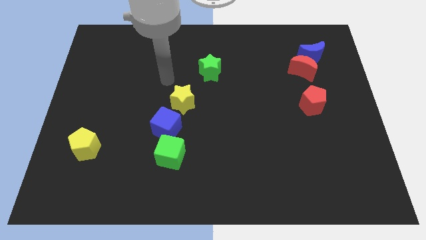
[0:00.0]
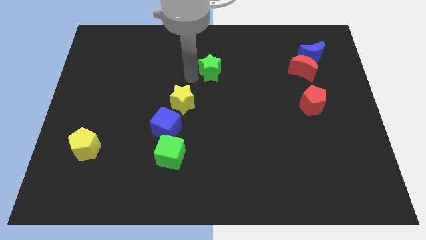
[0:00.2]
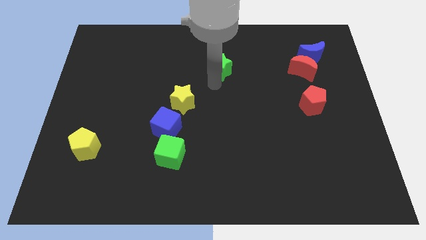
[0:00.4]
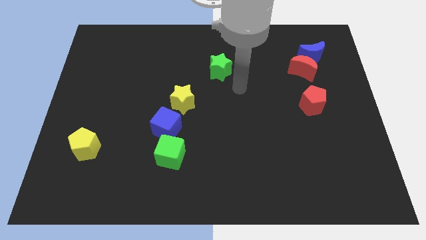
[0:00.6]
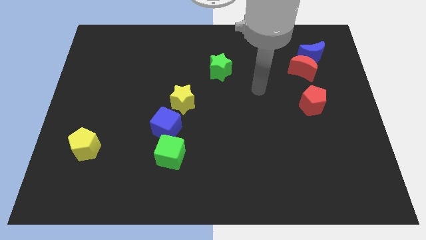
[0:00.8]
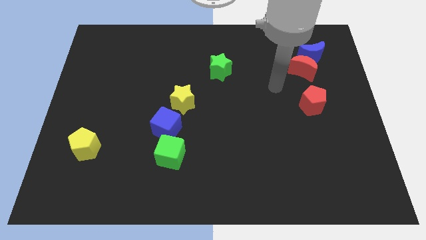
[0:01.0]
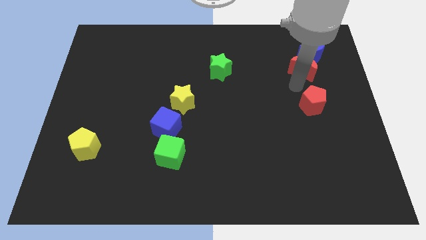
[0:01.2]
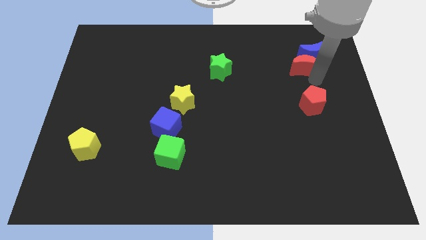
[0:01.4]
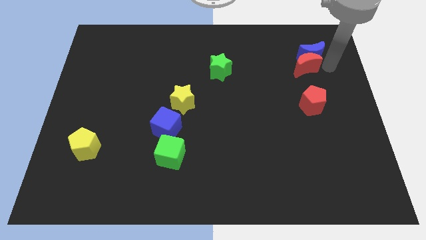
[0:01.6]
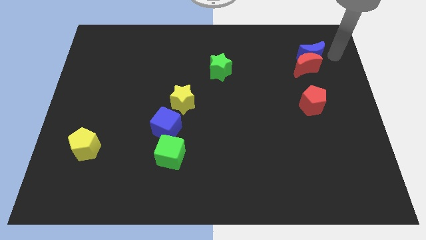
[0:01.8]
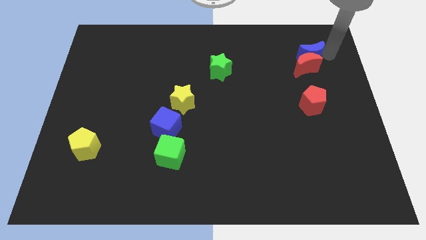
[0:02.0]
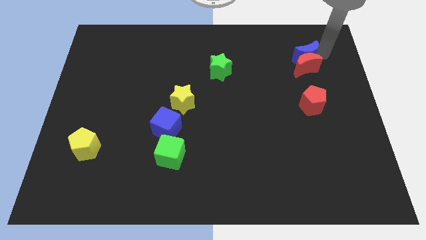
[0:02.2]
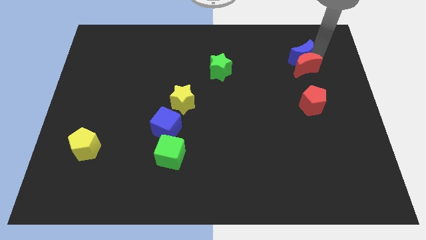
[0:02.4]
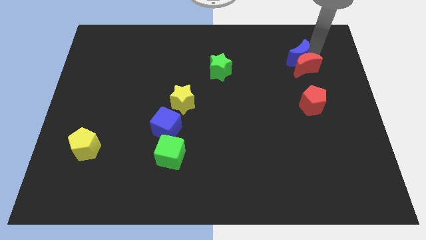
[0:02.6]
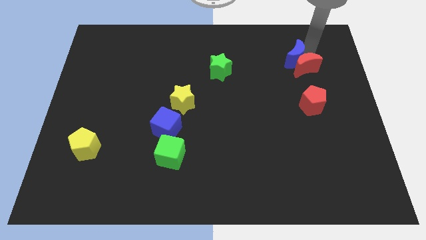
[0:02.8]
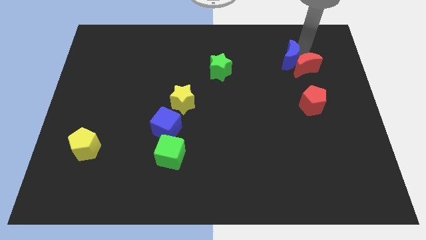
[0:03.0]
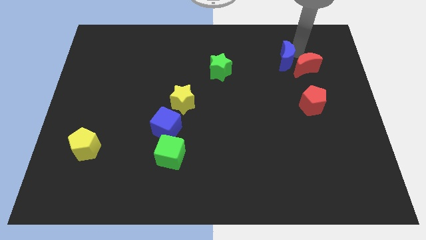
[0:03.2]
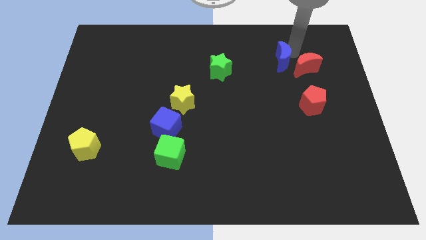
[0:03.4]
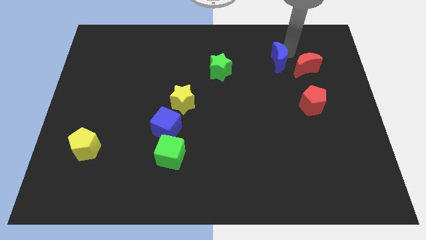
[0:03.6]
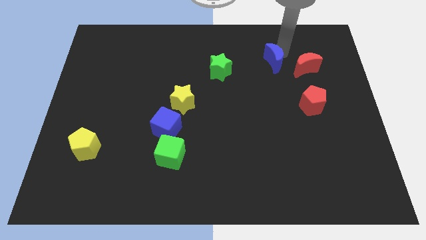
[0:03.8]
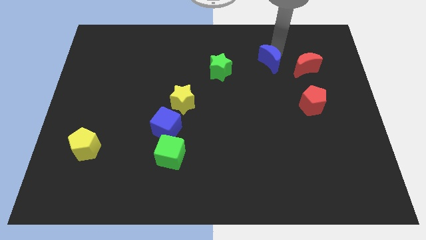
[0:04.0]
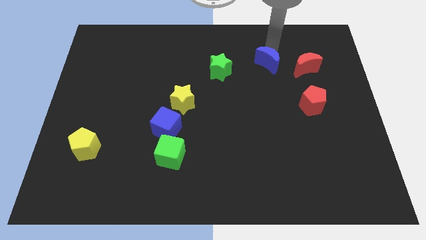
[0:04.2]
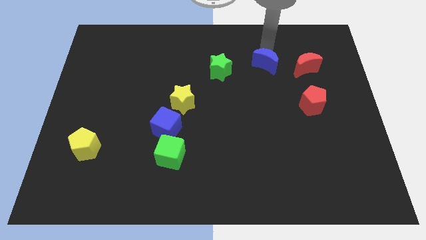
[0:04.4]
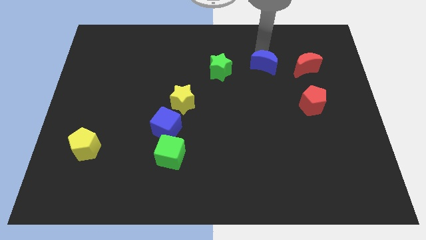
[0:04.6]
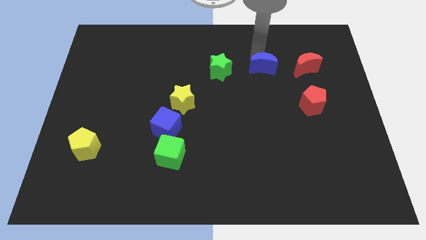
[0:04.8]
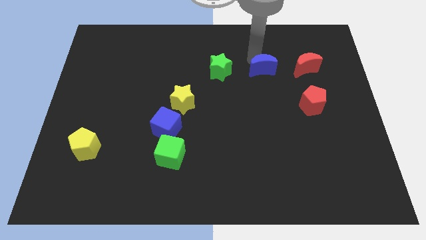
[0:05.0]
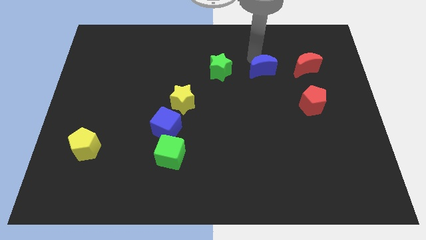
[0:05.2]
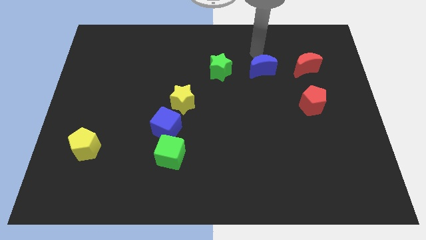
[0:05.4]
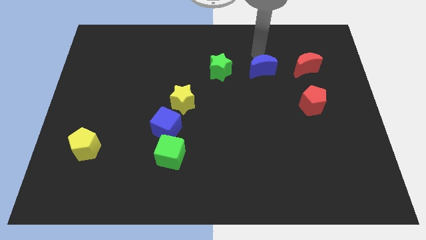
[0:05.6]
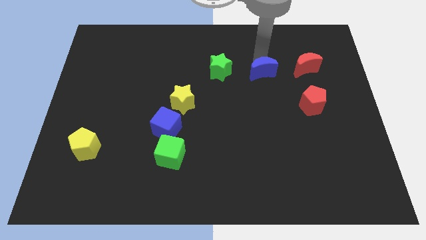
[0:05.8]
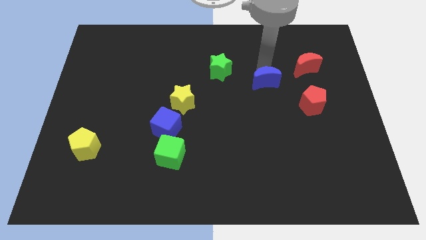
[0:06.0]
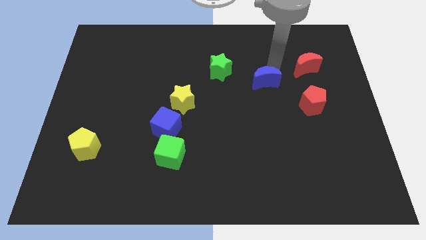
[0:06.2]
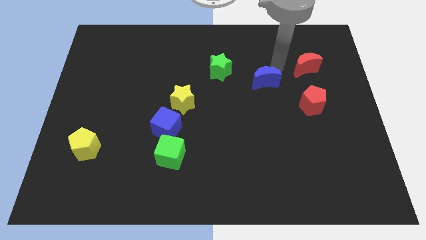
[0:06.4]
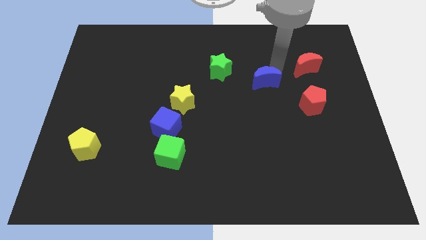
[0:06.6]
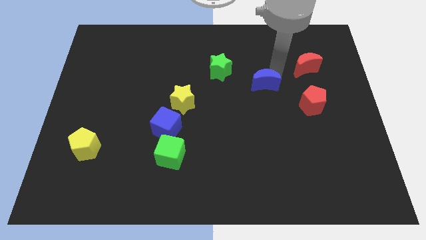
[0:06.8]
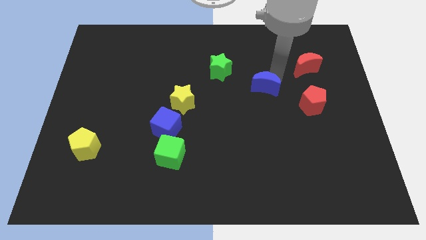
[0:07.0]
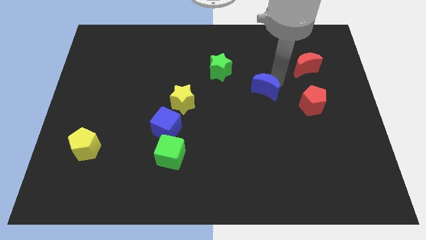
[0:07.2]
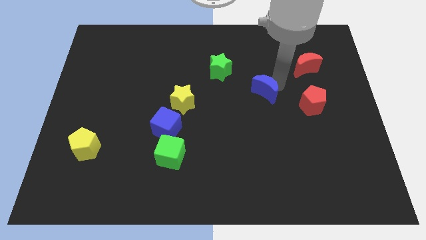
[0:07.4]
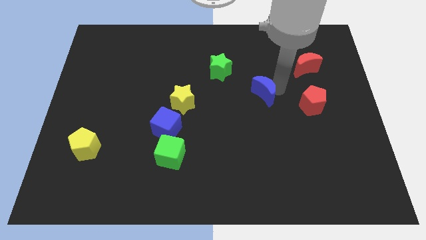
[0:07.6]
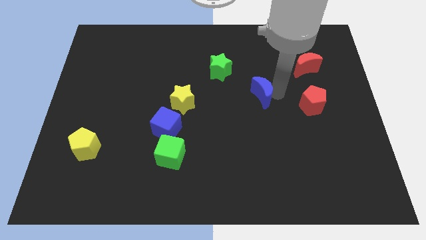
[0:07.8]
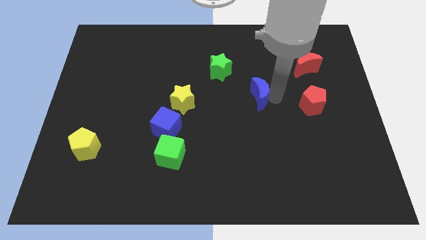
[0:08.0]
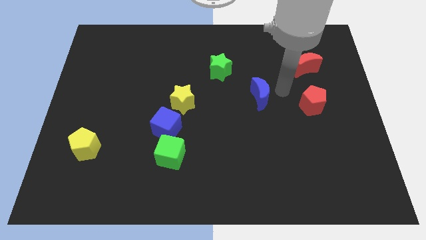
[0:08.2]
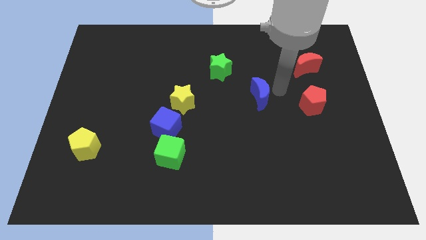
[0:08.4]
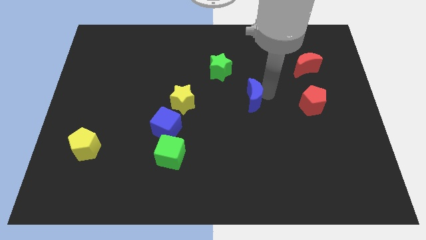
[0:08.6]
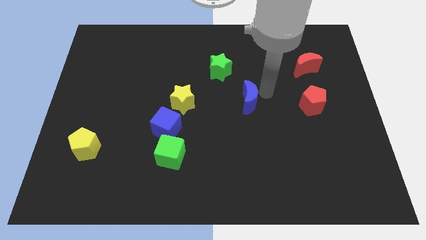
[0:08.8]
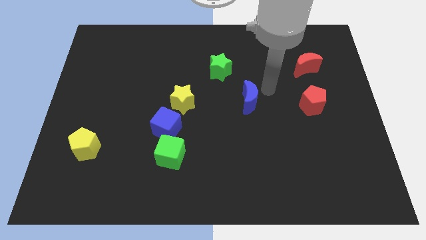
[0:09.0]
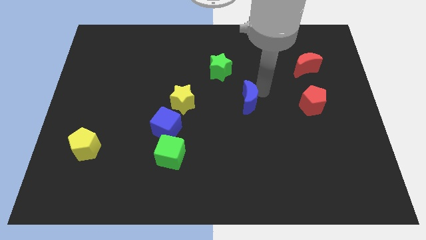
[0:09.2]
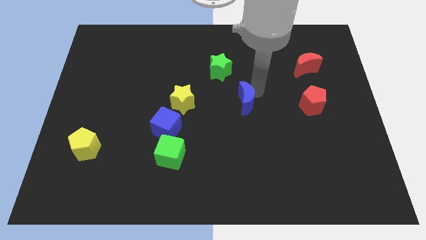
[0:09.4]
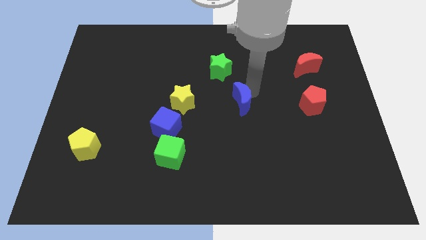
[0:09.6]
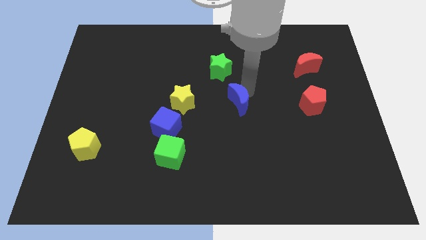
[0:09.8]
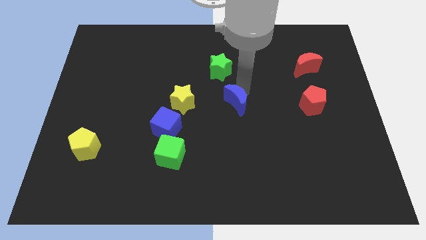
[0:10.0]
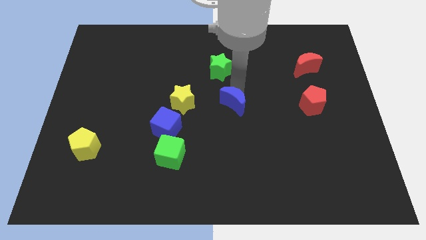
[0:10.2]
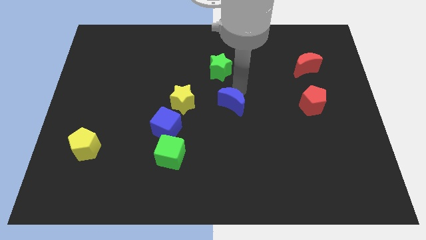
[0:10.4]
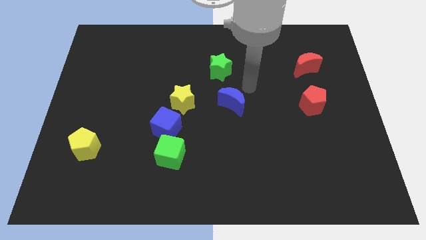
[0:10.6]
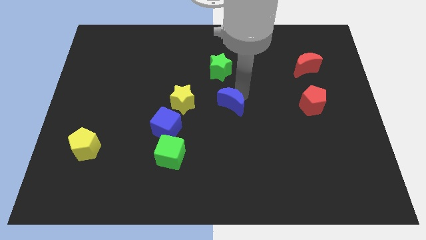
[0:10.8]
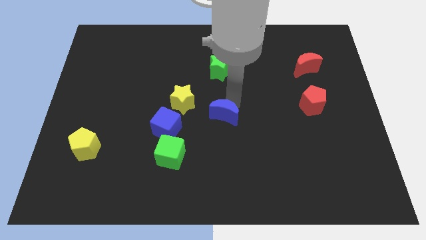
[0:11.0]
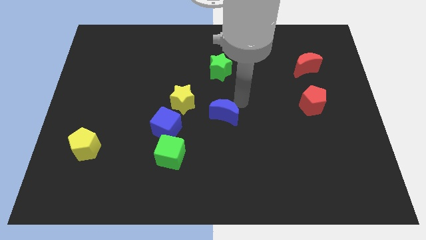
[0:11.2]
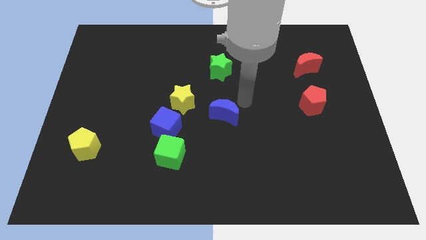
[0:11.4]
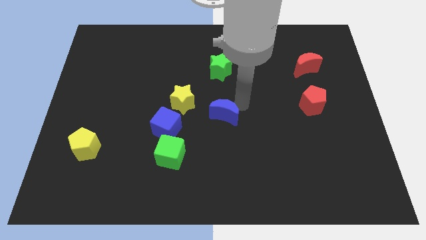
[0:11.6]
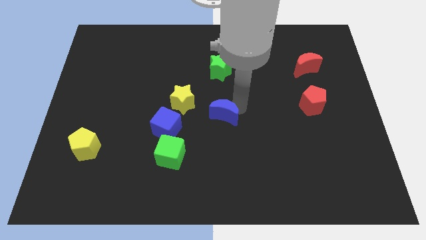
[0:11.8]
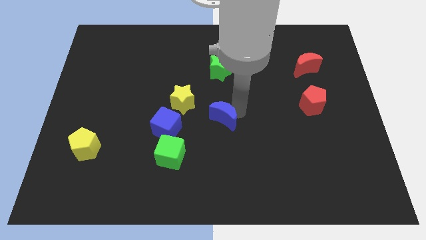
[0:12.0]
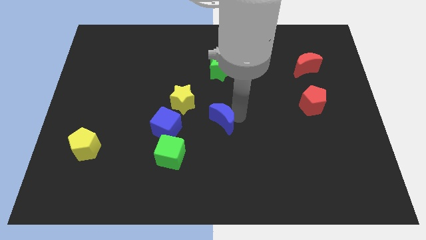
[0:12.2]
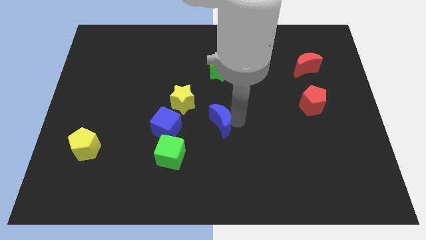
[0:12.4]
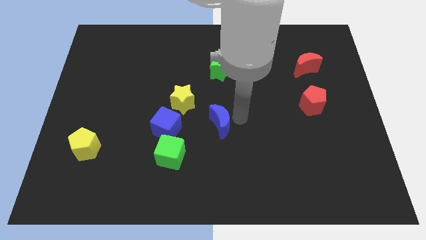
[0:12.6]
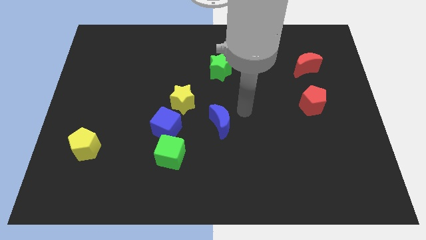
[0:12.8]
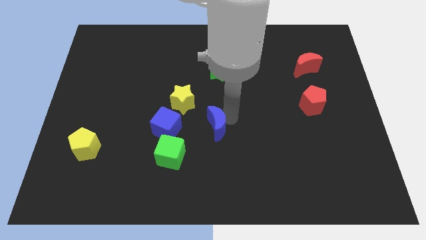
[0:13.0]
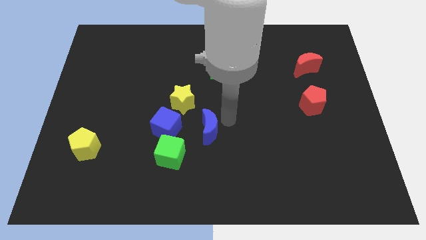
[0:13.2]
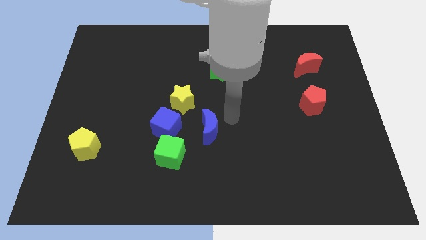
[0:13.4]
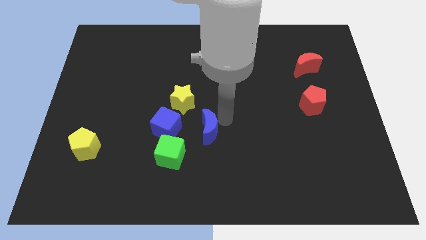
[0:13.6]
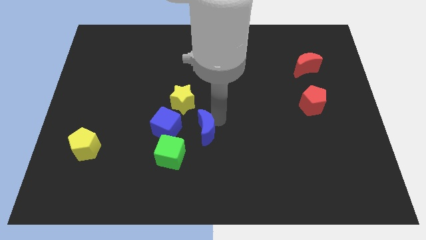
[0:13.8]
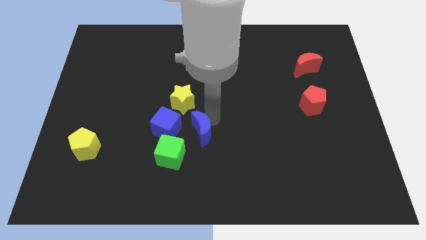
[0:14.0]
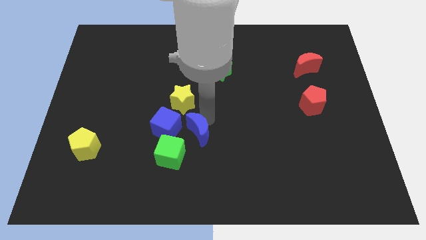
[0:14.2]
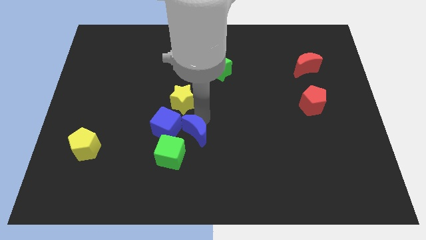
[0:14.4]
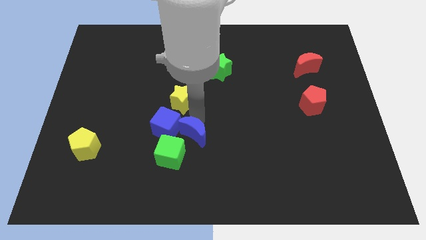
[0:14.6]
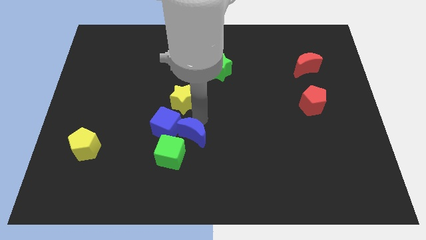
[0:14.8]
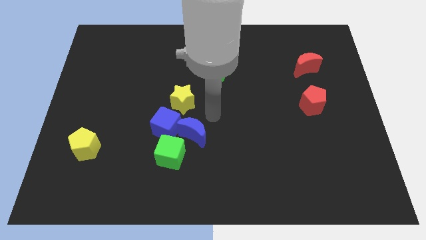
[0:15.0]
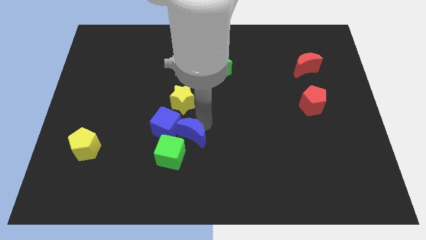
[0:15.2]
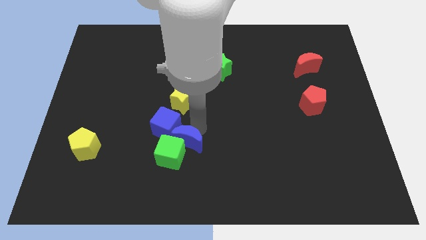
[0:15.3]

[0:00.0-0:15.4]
push the blue moon close to the green cube
